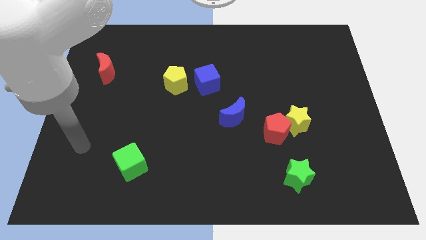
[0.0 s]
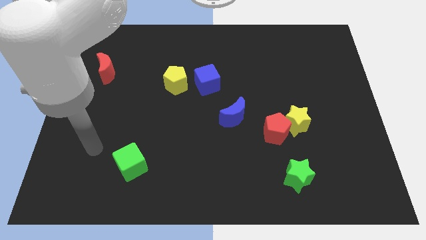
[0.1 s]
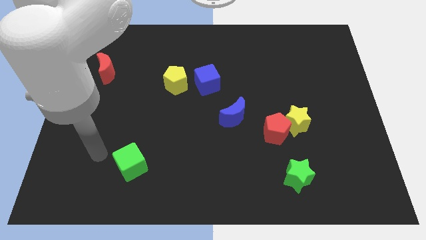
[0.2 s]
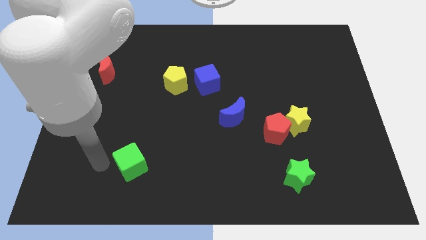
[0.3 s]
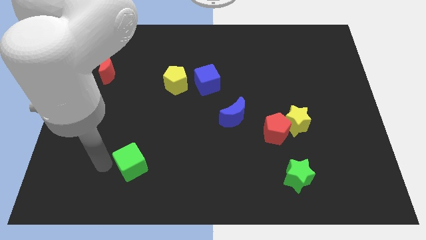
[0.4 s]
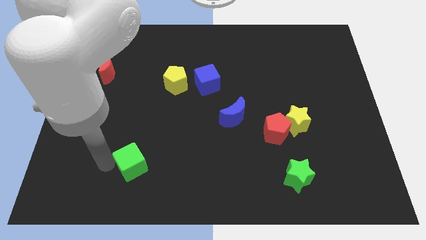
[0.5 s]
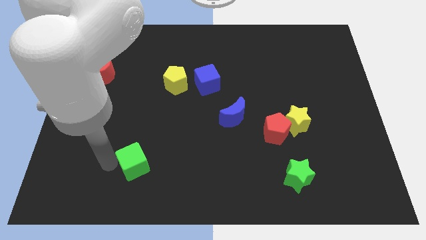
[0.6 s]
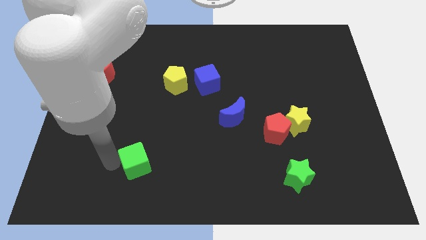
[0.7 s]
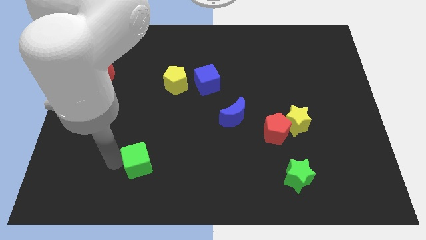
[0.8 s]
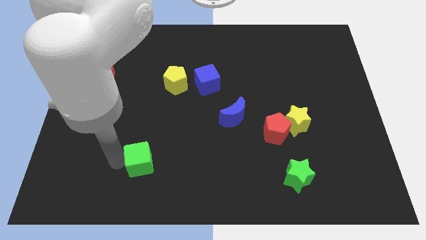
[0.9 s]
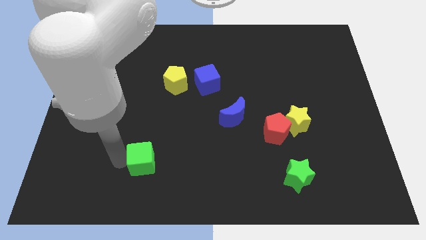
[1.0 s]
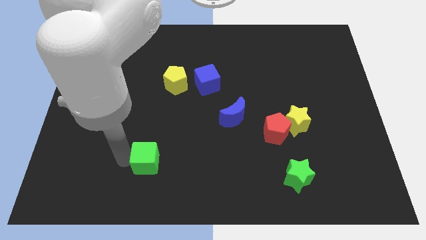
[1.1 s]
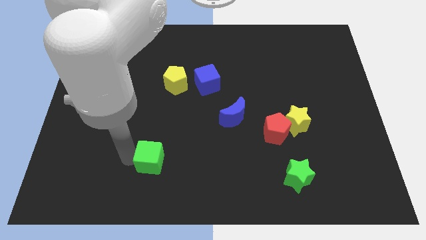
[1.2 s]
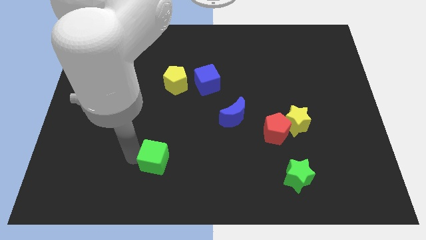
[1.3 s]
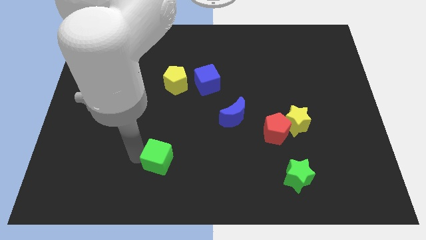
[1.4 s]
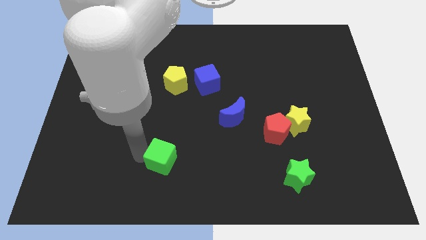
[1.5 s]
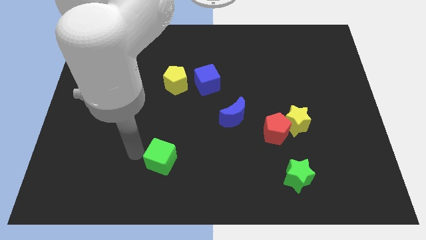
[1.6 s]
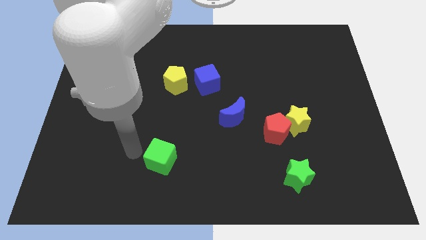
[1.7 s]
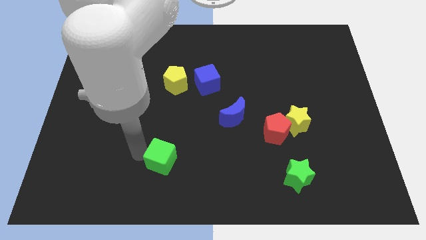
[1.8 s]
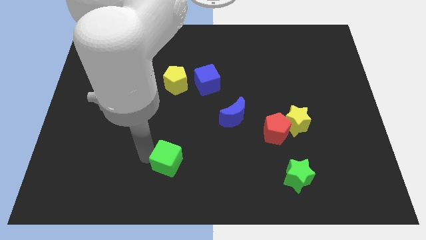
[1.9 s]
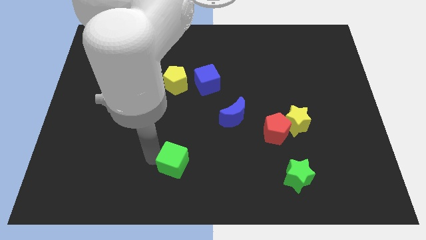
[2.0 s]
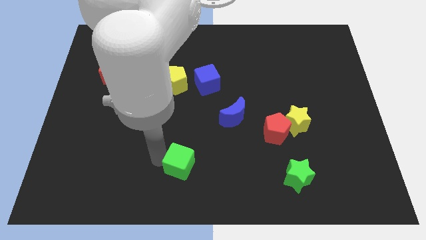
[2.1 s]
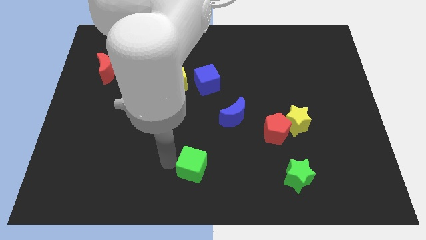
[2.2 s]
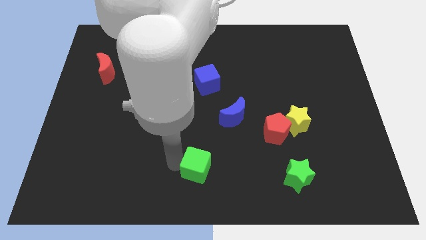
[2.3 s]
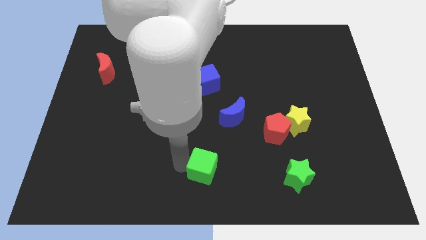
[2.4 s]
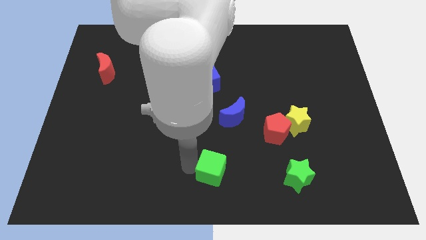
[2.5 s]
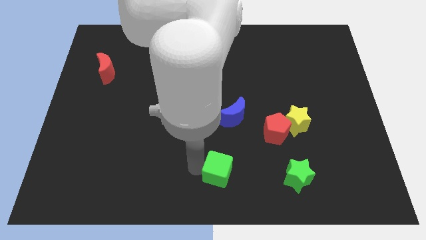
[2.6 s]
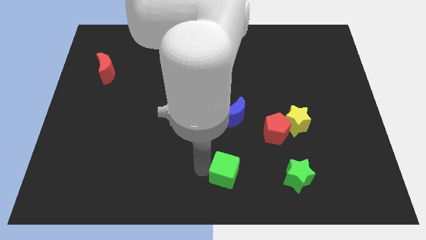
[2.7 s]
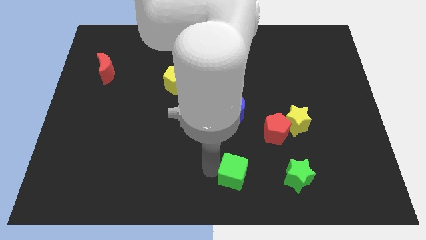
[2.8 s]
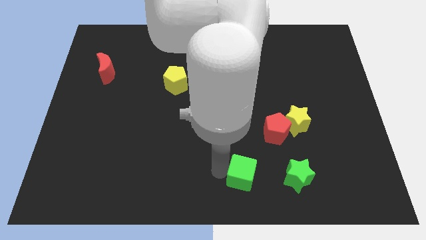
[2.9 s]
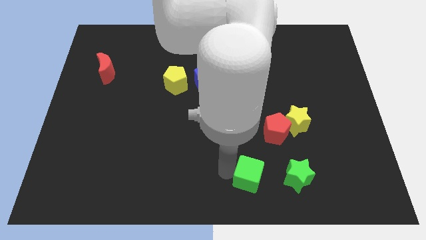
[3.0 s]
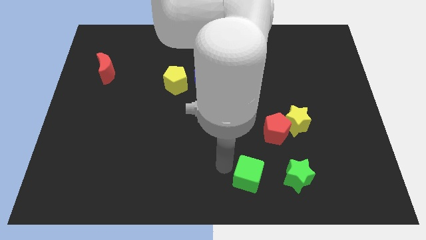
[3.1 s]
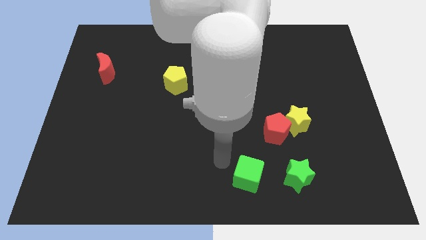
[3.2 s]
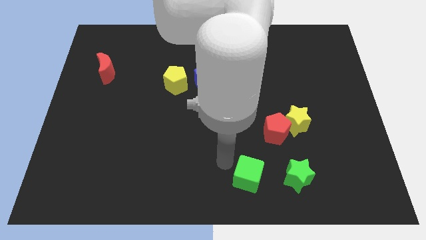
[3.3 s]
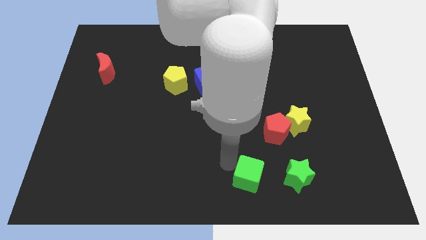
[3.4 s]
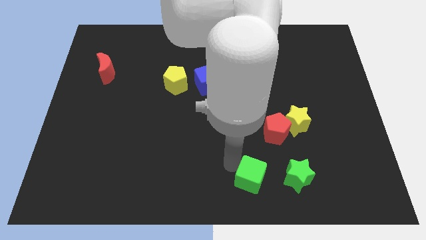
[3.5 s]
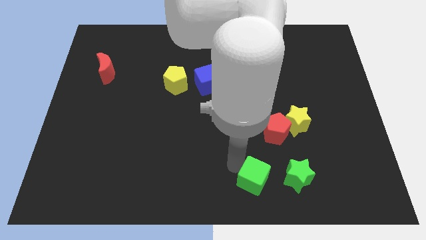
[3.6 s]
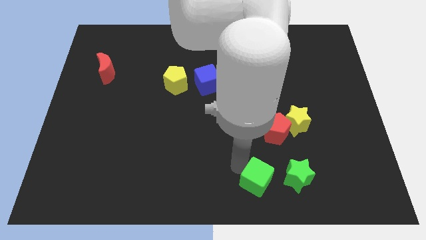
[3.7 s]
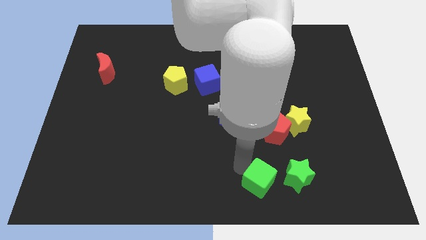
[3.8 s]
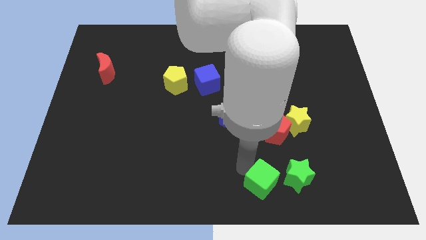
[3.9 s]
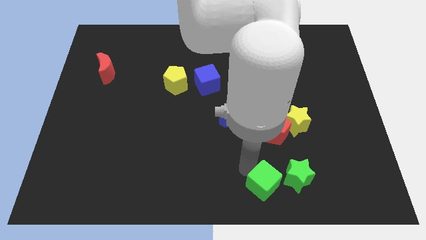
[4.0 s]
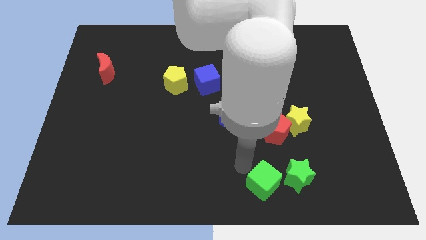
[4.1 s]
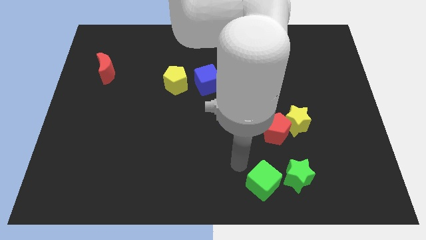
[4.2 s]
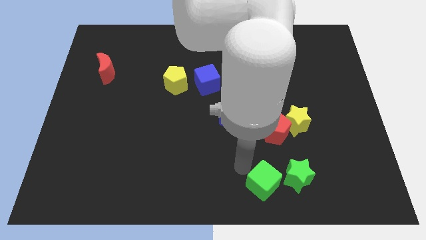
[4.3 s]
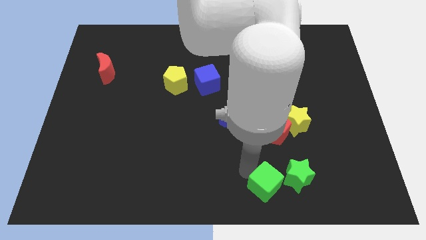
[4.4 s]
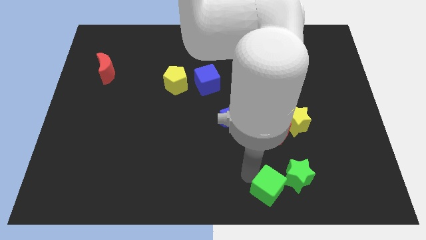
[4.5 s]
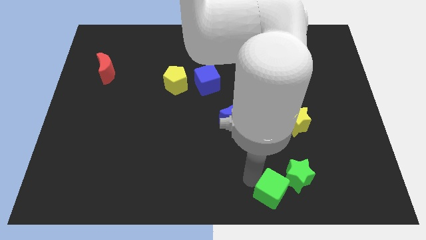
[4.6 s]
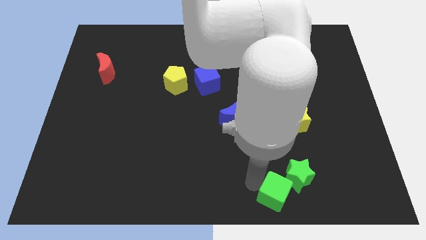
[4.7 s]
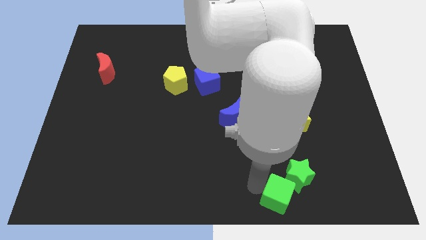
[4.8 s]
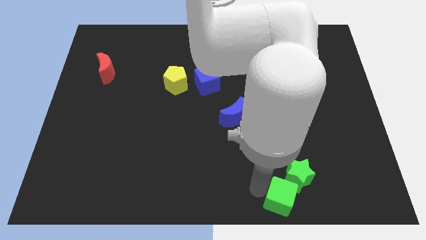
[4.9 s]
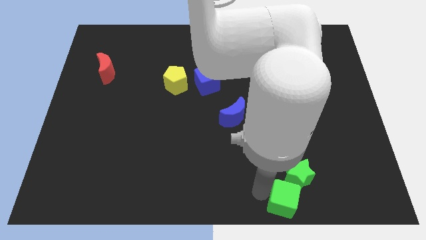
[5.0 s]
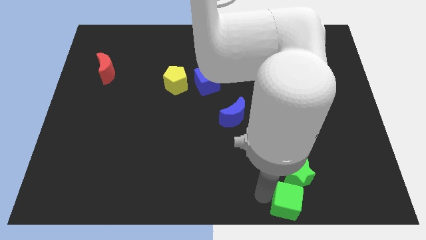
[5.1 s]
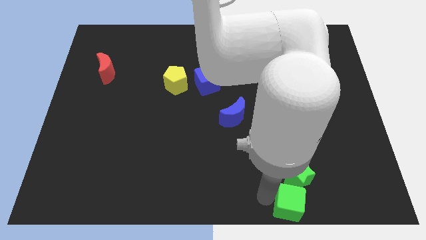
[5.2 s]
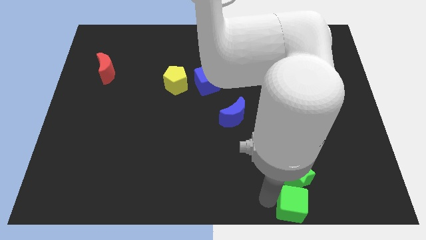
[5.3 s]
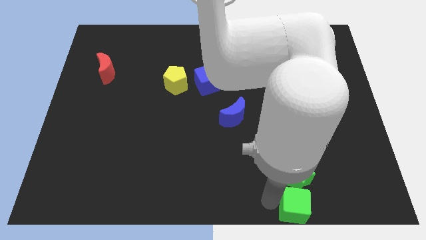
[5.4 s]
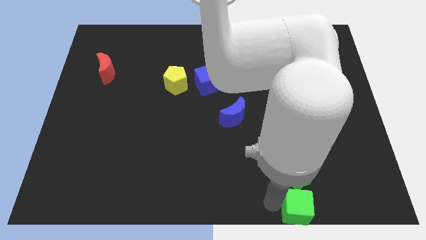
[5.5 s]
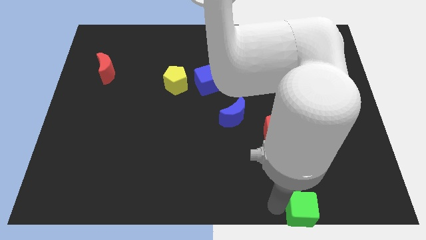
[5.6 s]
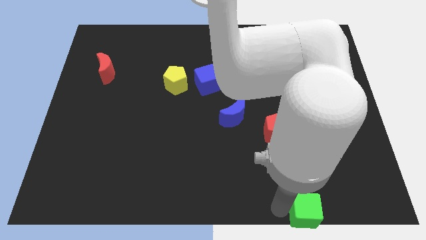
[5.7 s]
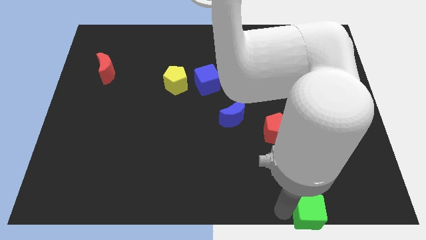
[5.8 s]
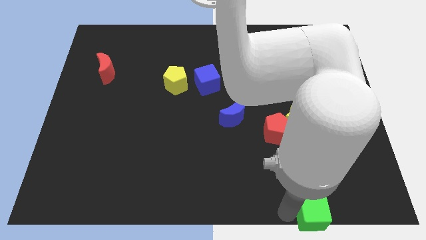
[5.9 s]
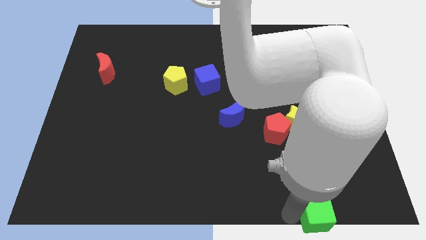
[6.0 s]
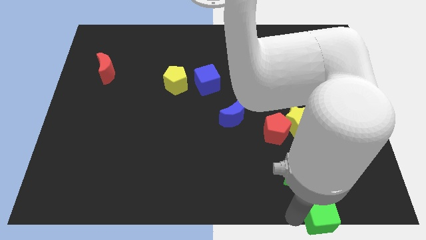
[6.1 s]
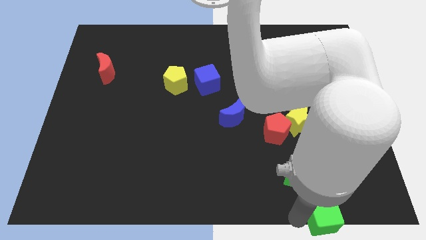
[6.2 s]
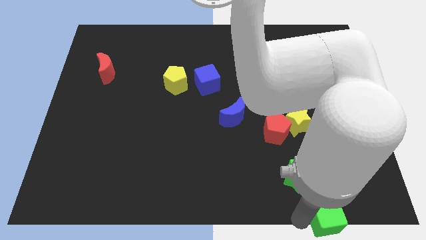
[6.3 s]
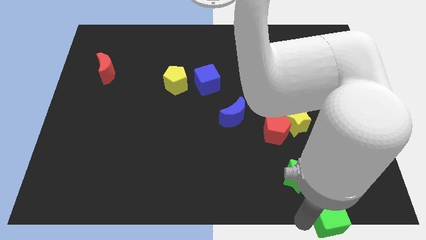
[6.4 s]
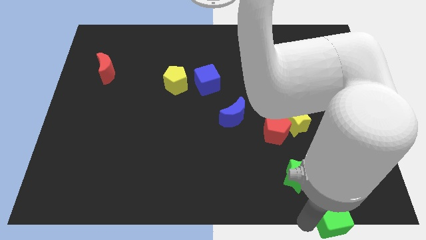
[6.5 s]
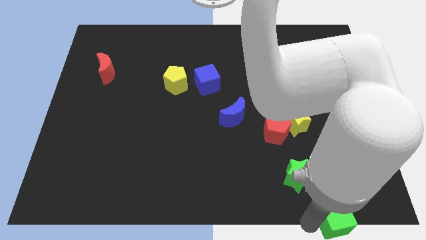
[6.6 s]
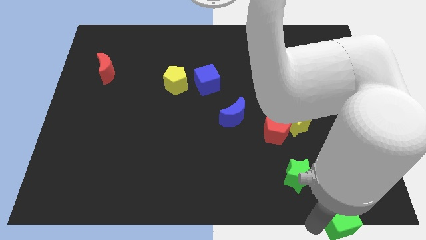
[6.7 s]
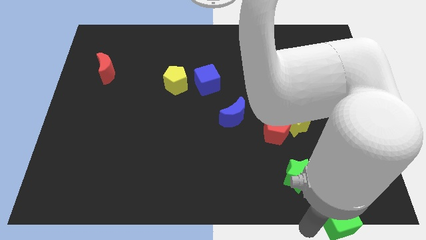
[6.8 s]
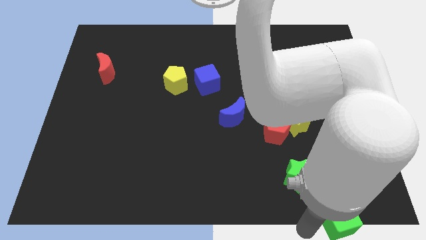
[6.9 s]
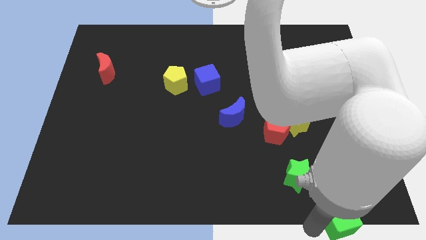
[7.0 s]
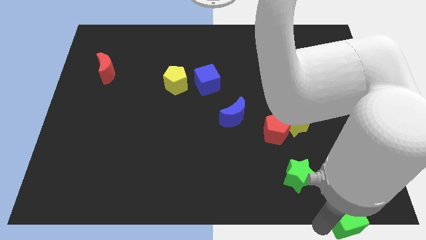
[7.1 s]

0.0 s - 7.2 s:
put the green cube to the bottom right of the board
